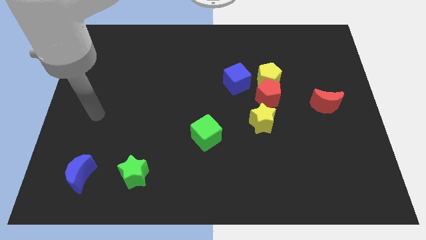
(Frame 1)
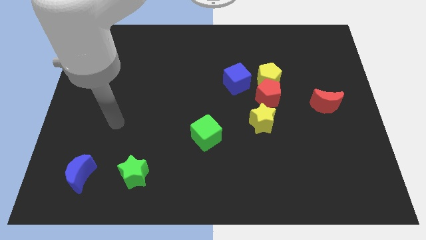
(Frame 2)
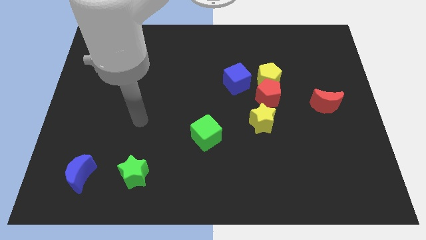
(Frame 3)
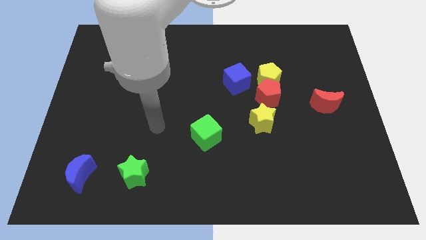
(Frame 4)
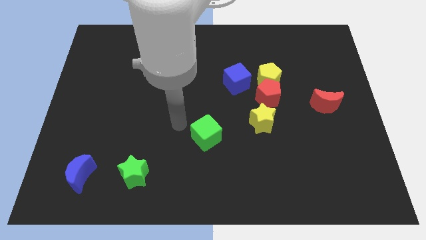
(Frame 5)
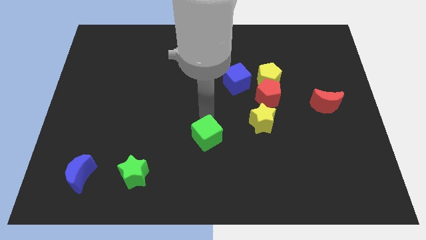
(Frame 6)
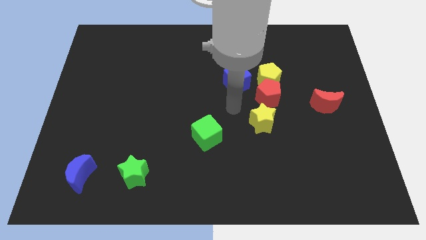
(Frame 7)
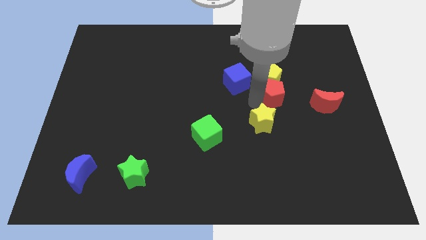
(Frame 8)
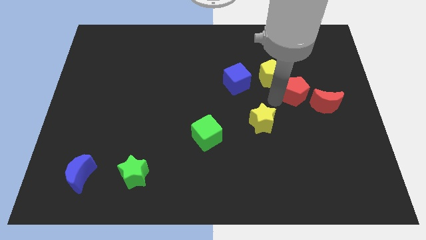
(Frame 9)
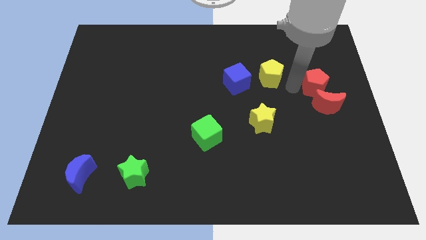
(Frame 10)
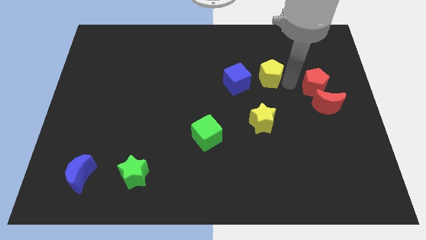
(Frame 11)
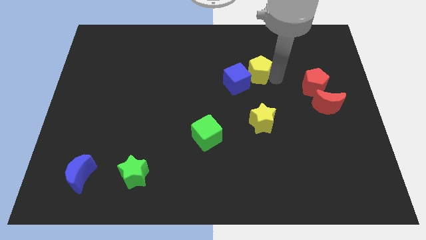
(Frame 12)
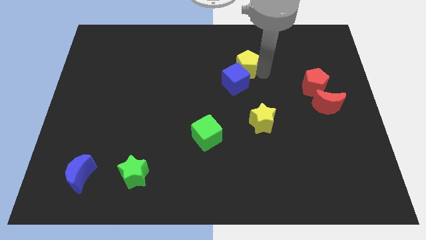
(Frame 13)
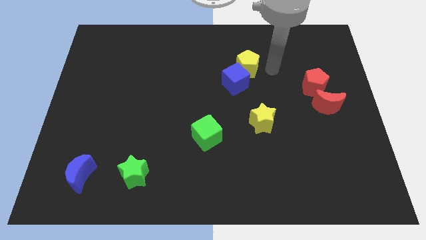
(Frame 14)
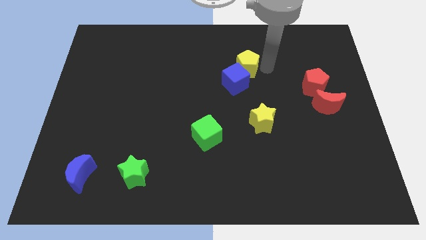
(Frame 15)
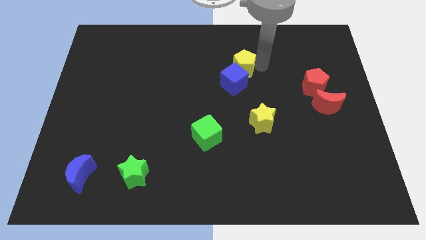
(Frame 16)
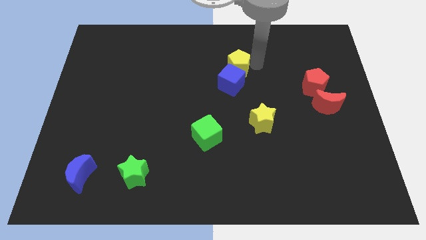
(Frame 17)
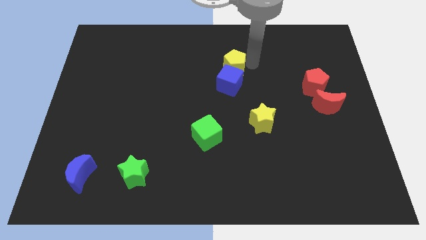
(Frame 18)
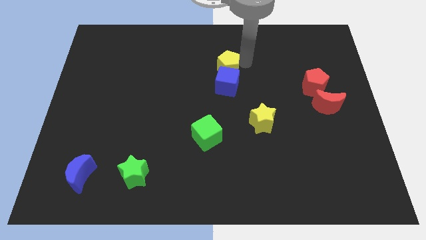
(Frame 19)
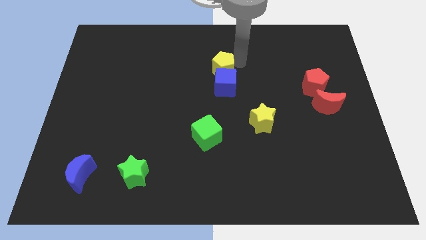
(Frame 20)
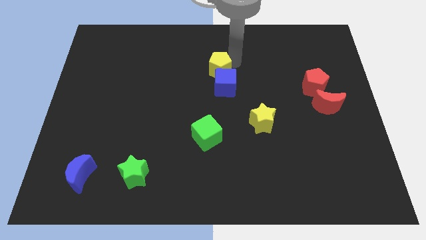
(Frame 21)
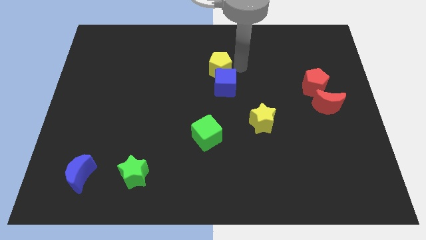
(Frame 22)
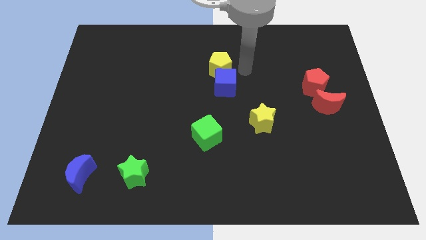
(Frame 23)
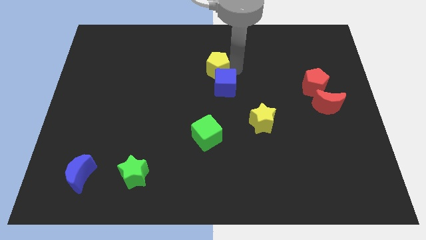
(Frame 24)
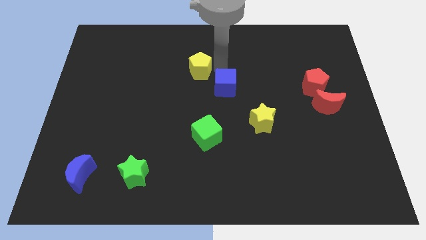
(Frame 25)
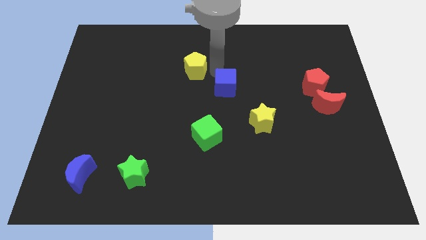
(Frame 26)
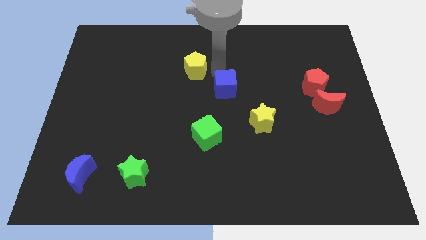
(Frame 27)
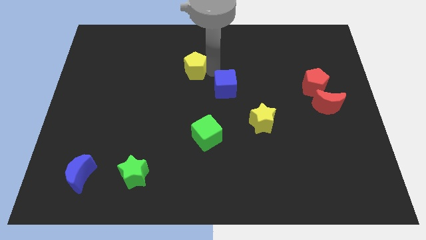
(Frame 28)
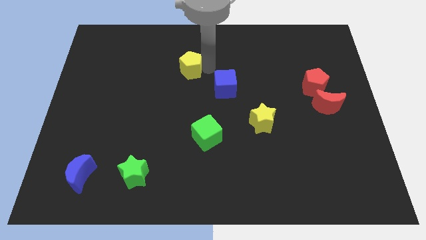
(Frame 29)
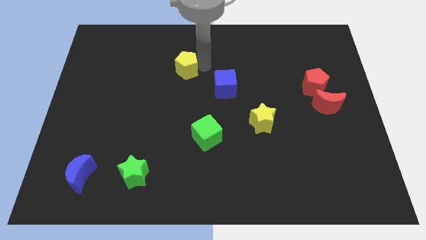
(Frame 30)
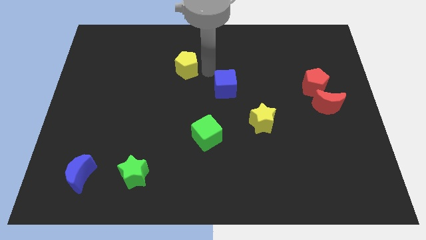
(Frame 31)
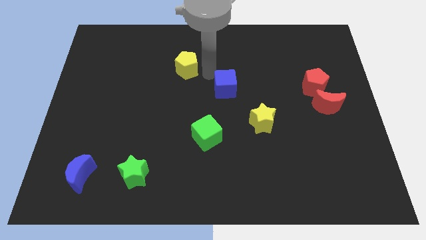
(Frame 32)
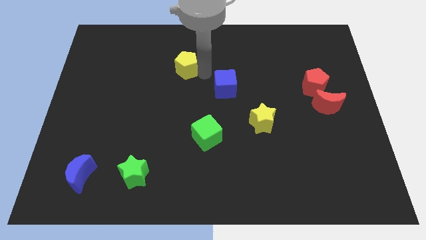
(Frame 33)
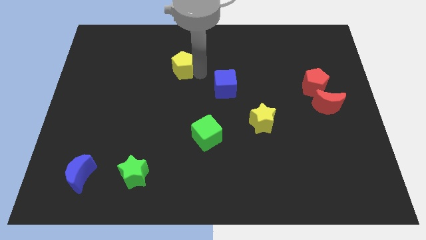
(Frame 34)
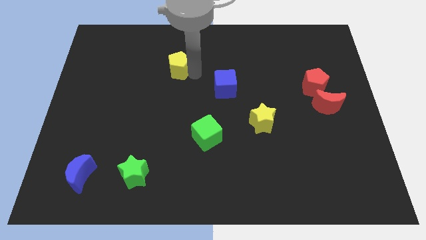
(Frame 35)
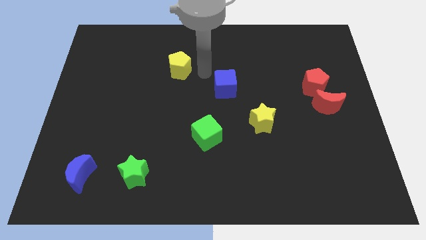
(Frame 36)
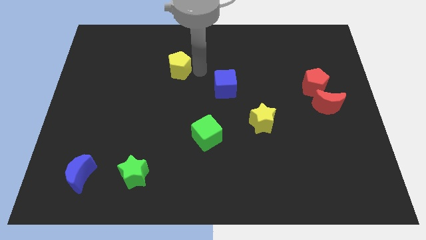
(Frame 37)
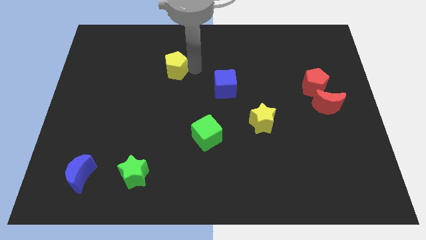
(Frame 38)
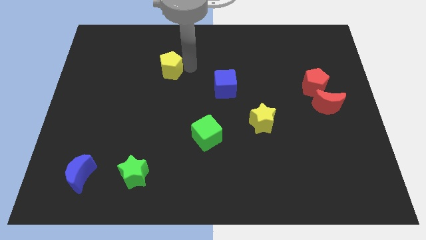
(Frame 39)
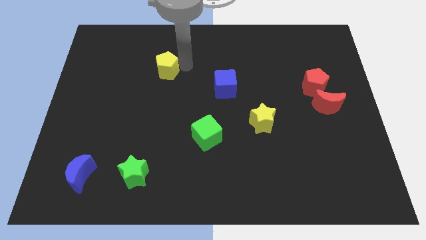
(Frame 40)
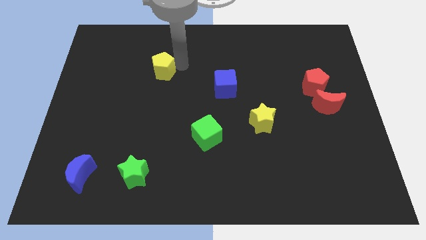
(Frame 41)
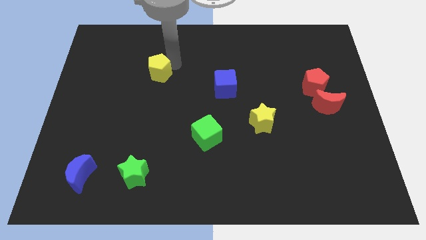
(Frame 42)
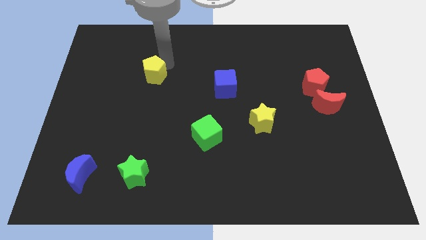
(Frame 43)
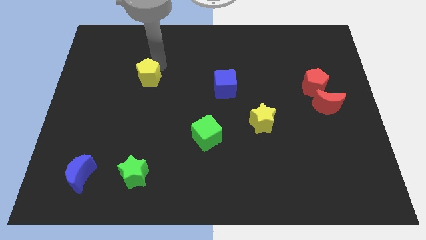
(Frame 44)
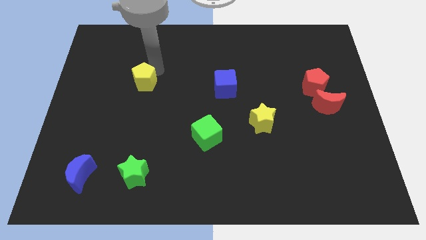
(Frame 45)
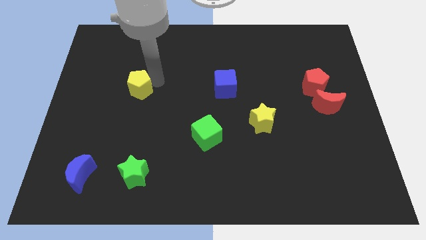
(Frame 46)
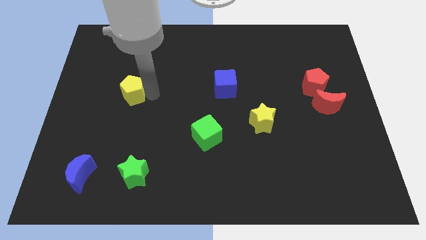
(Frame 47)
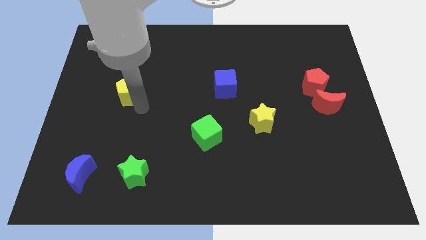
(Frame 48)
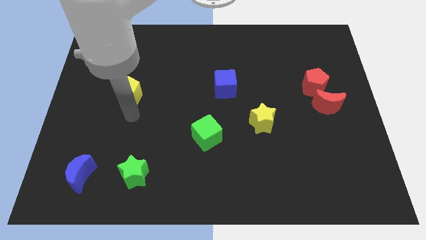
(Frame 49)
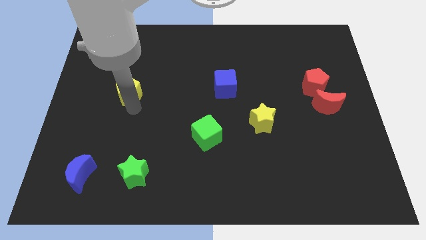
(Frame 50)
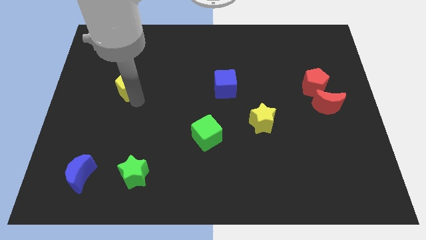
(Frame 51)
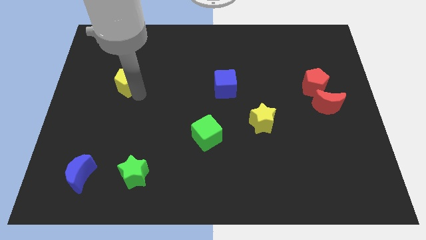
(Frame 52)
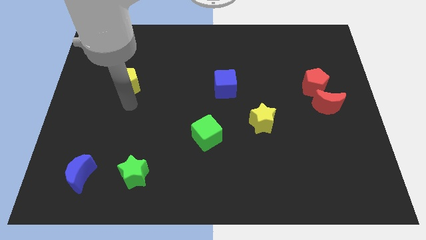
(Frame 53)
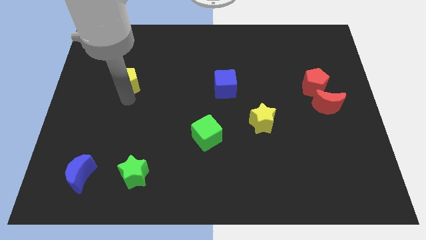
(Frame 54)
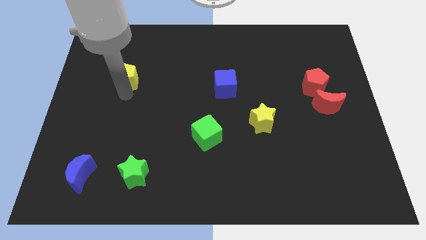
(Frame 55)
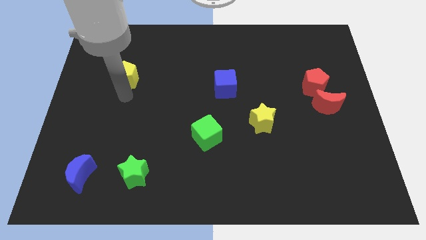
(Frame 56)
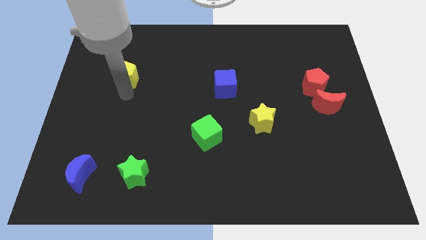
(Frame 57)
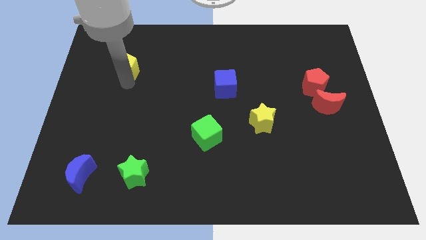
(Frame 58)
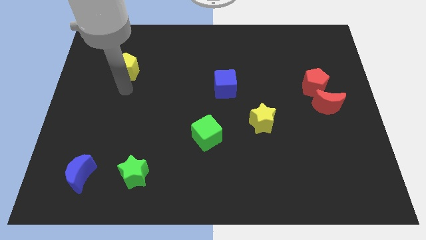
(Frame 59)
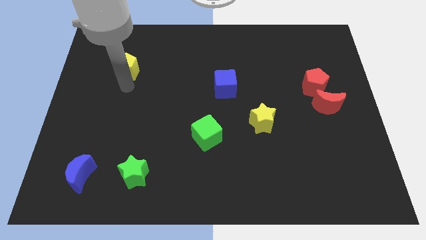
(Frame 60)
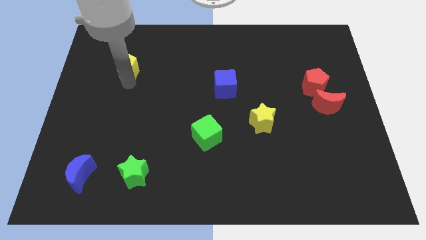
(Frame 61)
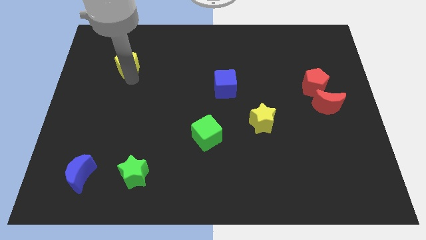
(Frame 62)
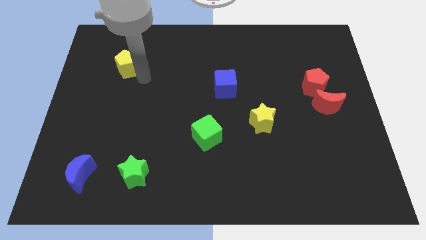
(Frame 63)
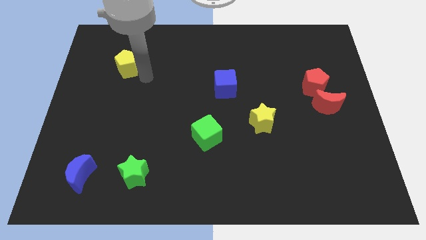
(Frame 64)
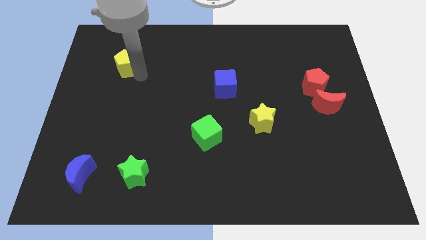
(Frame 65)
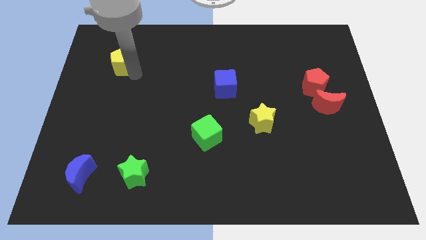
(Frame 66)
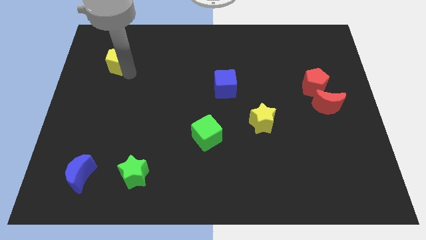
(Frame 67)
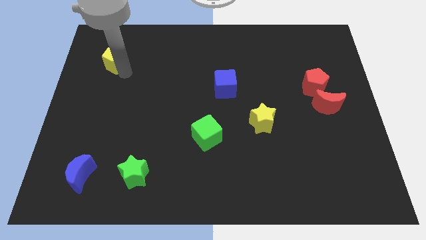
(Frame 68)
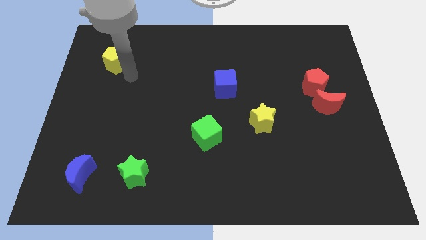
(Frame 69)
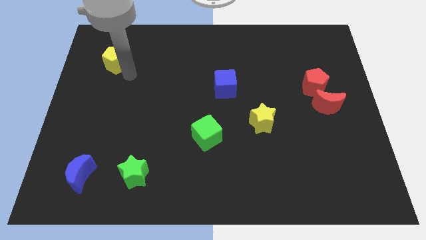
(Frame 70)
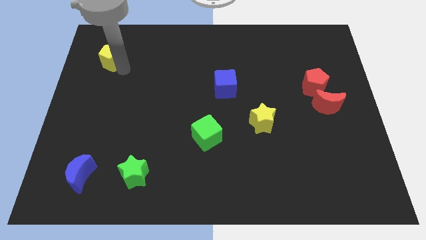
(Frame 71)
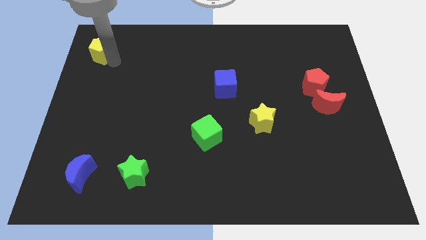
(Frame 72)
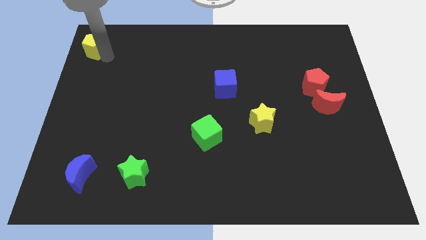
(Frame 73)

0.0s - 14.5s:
slide the yellow pentagon to the top left
